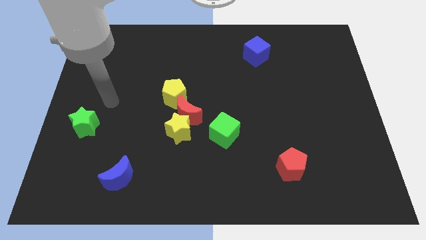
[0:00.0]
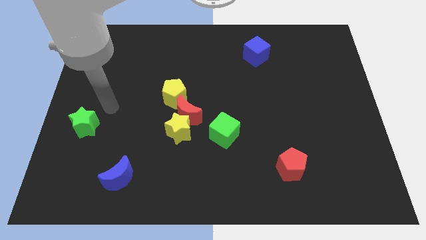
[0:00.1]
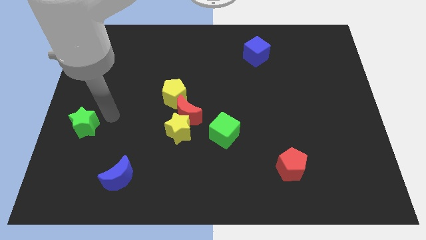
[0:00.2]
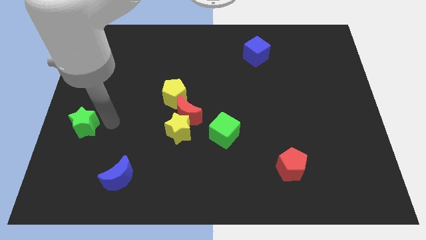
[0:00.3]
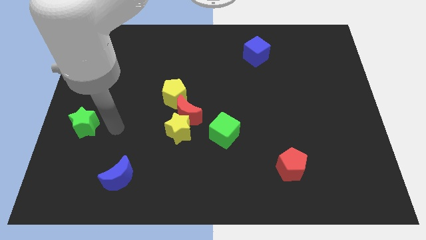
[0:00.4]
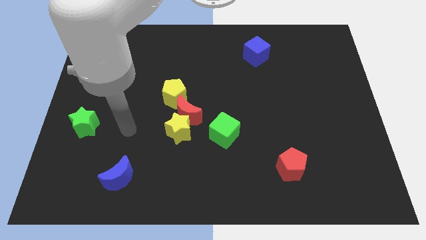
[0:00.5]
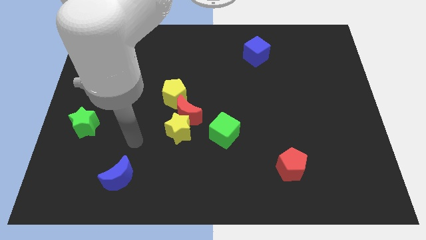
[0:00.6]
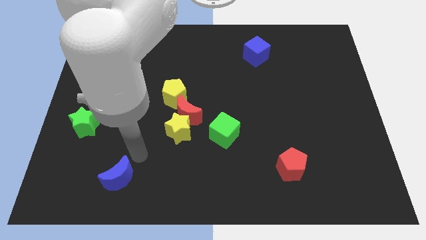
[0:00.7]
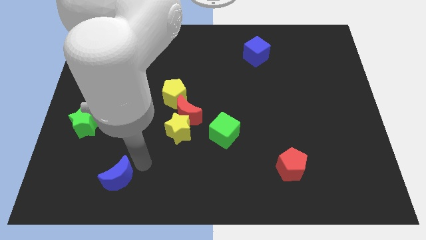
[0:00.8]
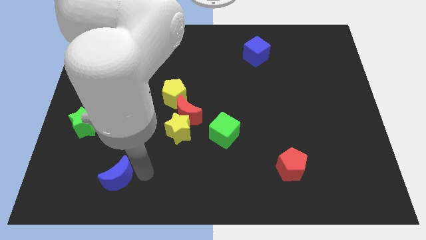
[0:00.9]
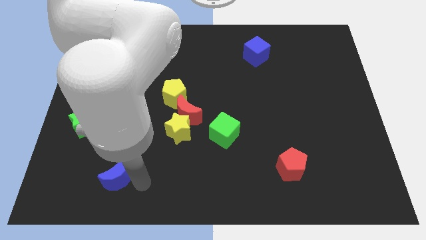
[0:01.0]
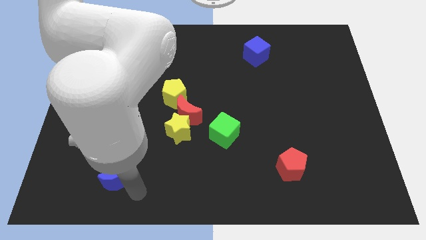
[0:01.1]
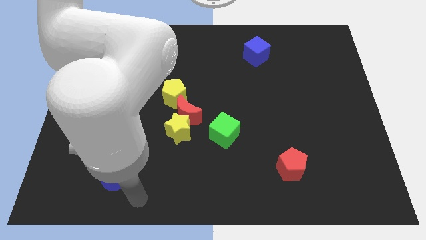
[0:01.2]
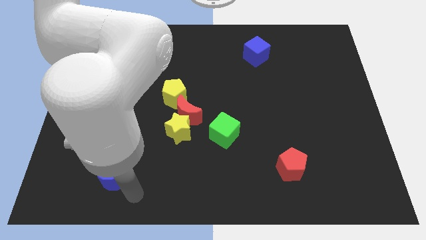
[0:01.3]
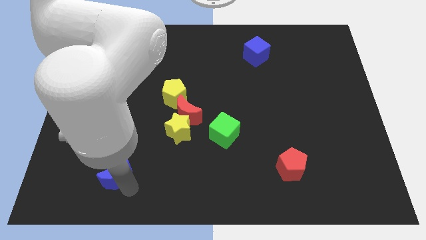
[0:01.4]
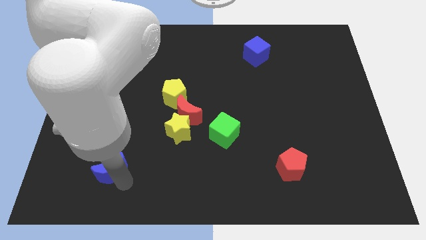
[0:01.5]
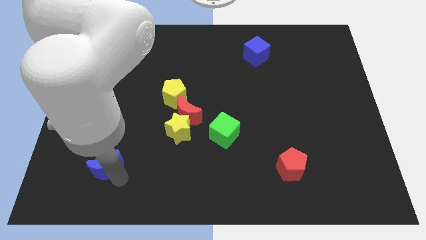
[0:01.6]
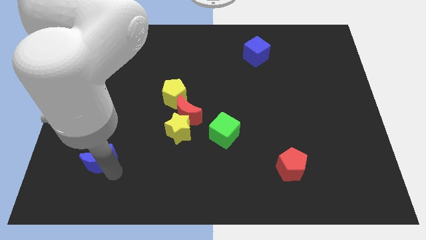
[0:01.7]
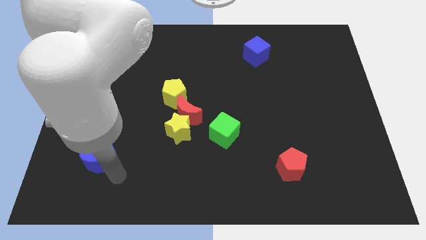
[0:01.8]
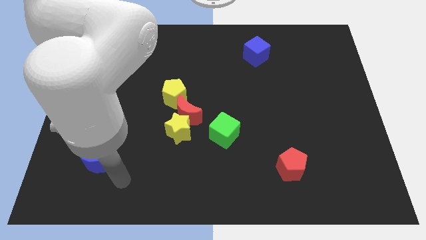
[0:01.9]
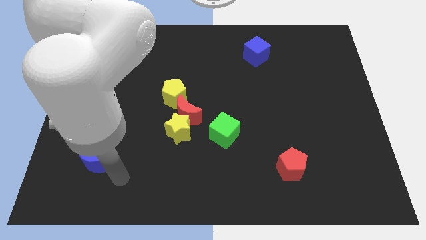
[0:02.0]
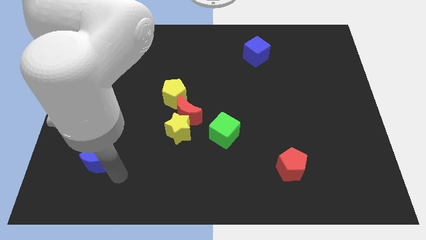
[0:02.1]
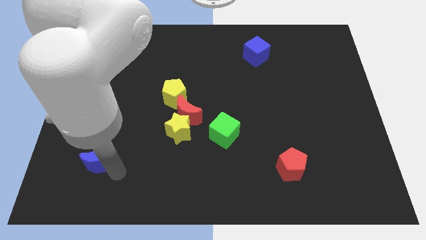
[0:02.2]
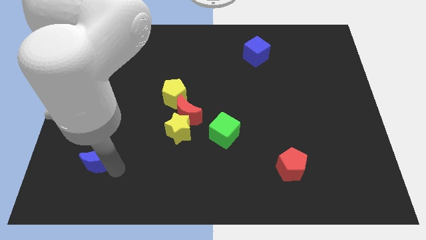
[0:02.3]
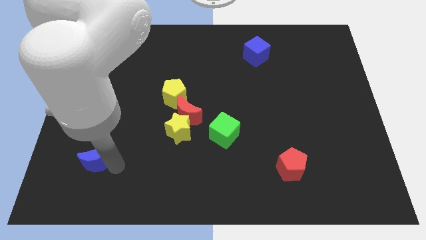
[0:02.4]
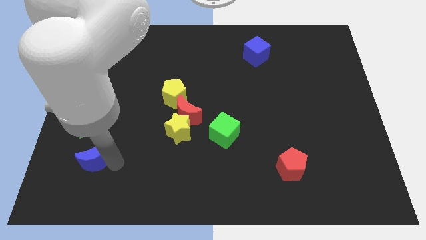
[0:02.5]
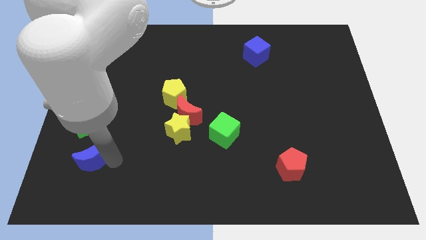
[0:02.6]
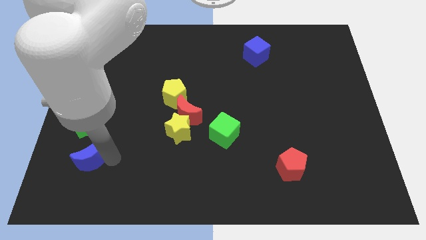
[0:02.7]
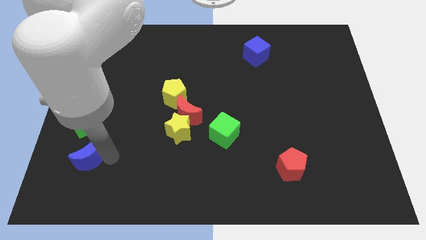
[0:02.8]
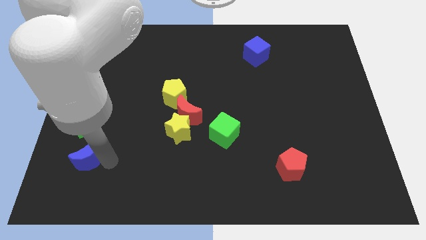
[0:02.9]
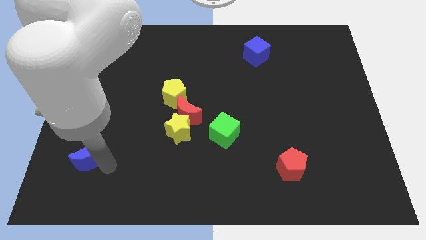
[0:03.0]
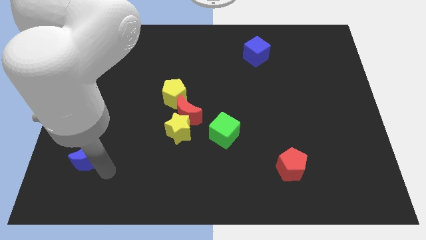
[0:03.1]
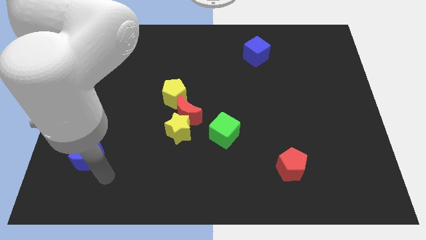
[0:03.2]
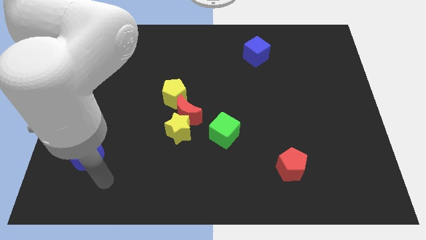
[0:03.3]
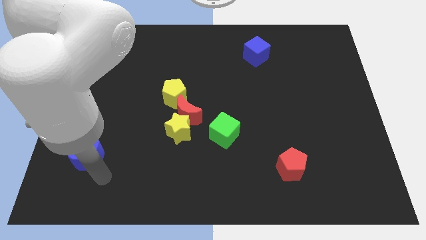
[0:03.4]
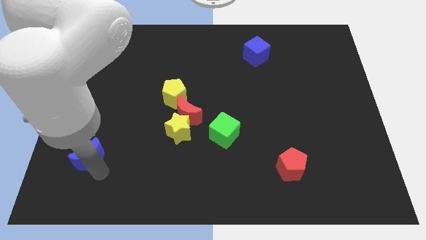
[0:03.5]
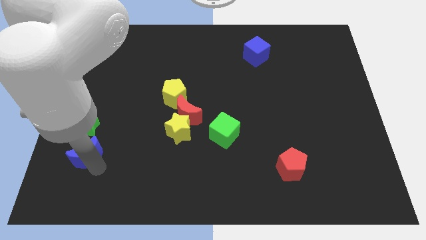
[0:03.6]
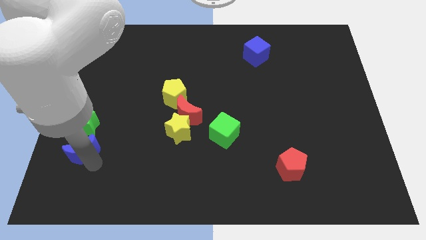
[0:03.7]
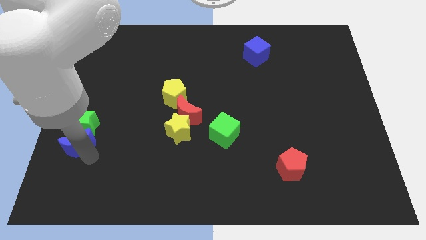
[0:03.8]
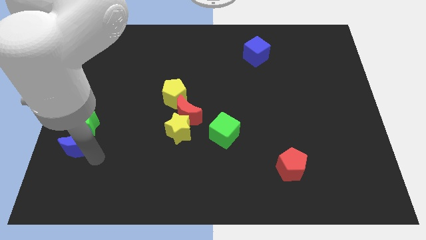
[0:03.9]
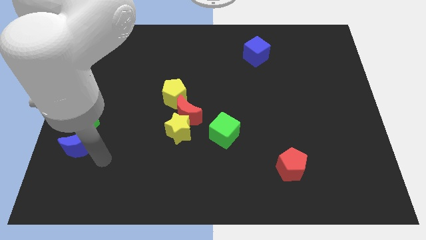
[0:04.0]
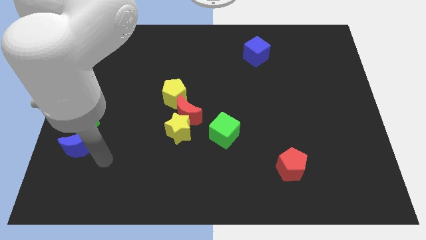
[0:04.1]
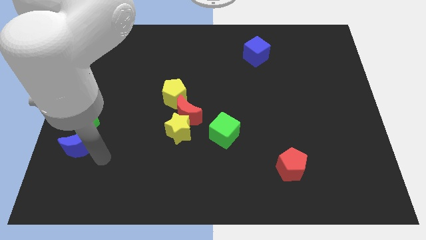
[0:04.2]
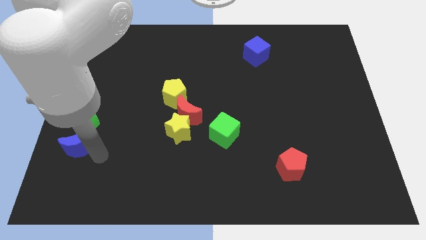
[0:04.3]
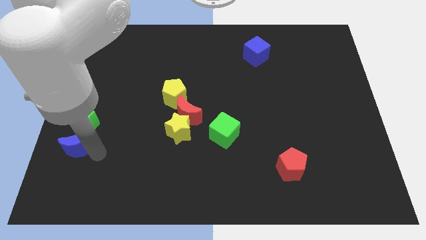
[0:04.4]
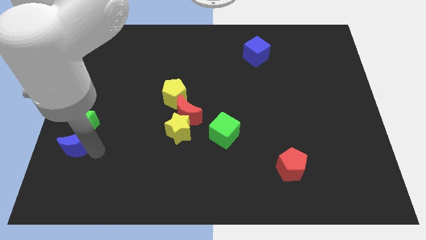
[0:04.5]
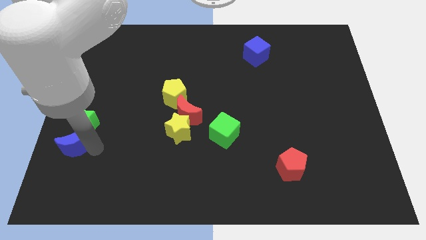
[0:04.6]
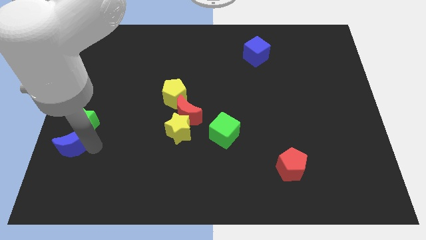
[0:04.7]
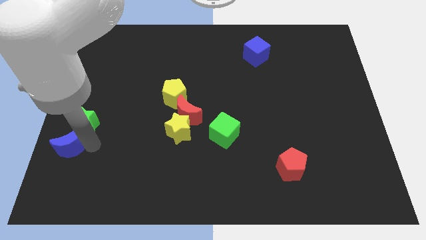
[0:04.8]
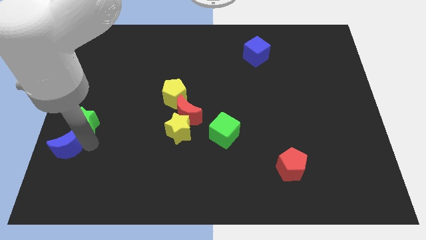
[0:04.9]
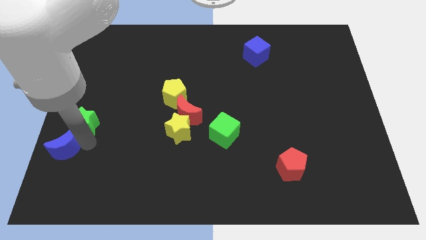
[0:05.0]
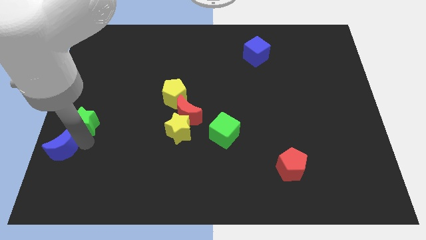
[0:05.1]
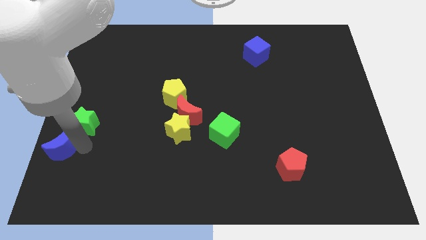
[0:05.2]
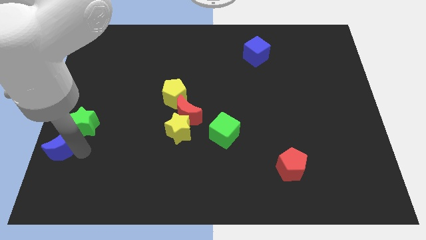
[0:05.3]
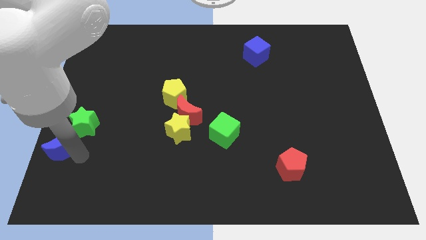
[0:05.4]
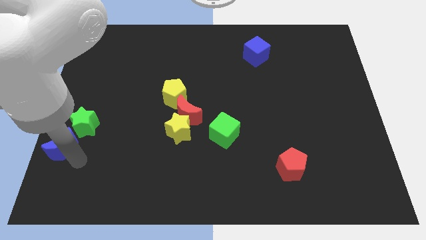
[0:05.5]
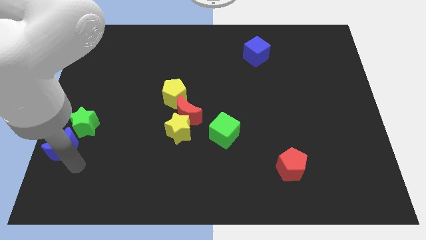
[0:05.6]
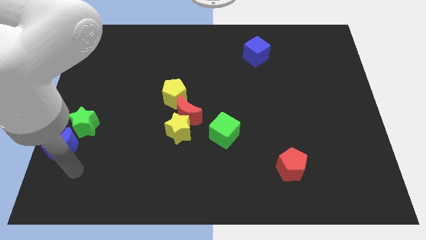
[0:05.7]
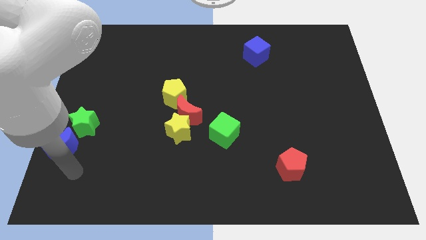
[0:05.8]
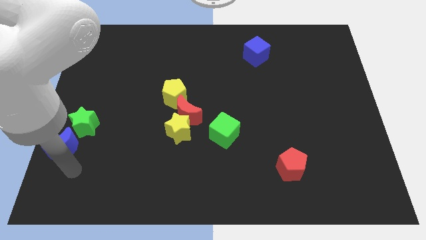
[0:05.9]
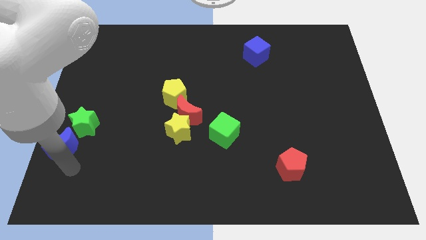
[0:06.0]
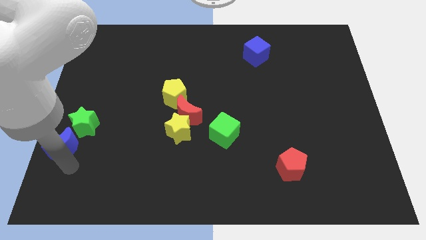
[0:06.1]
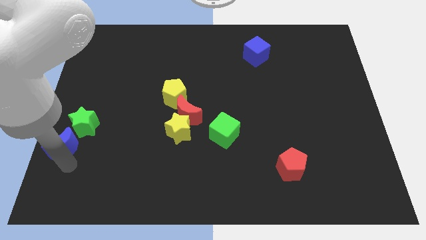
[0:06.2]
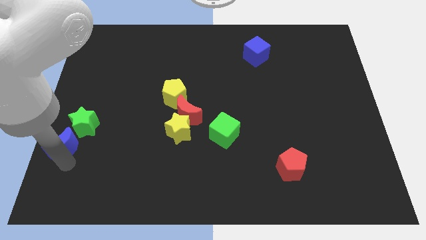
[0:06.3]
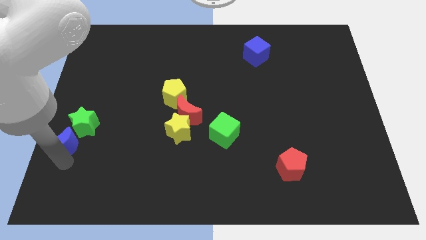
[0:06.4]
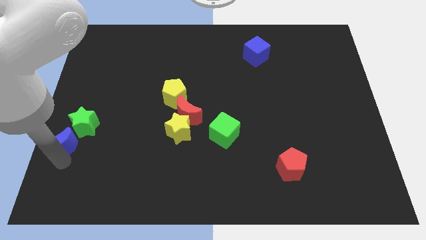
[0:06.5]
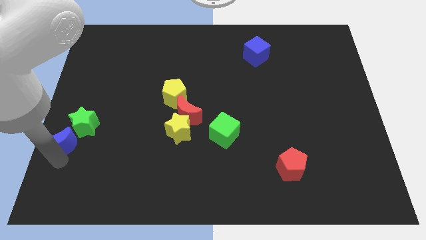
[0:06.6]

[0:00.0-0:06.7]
move the blue moon to the left side
